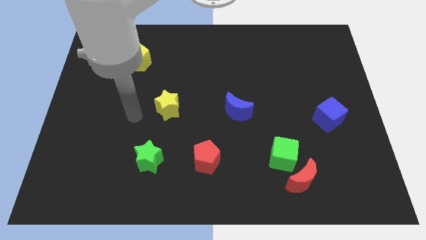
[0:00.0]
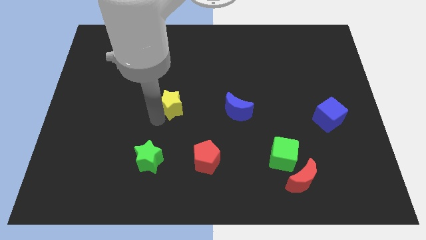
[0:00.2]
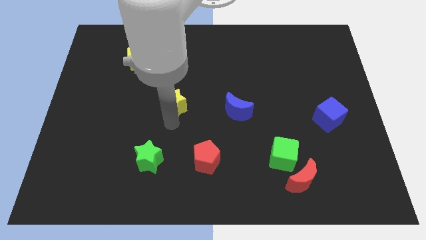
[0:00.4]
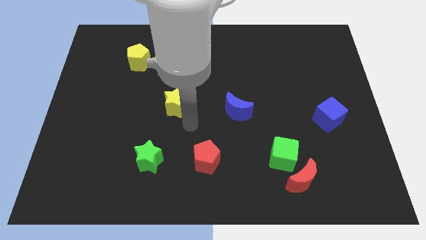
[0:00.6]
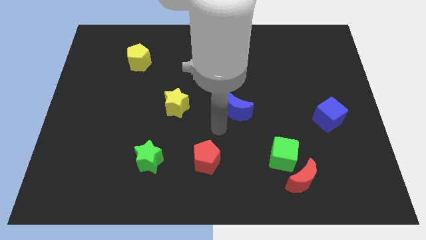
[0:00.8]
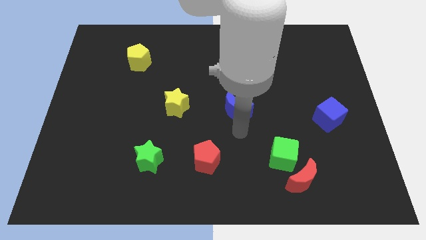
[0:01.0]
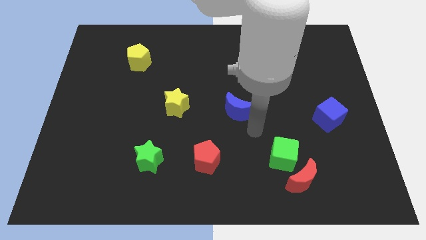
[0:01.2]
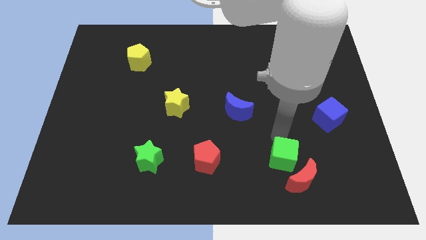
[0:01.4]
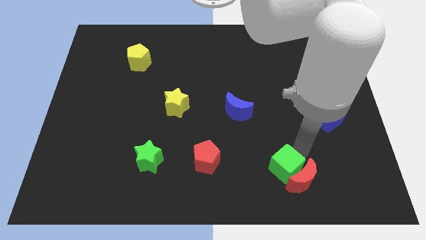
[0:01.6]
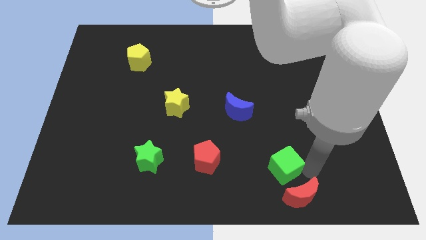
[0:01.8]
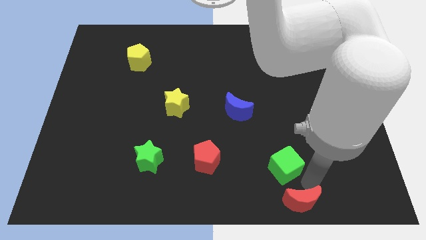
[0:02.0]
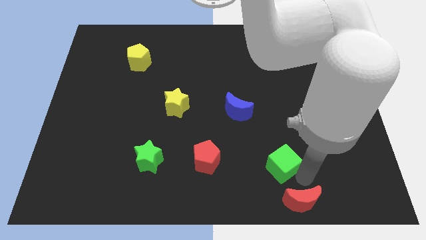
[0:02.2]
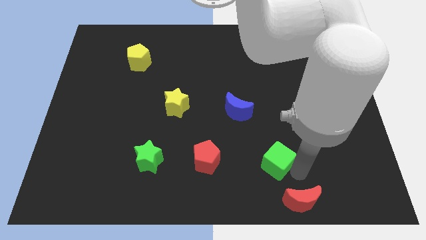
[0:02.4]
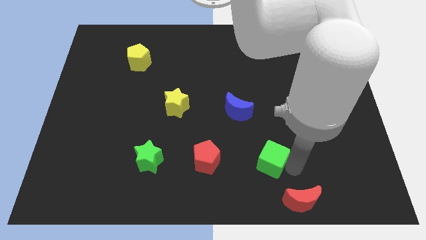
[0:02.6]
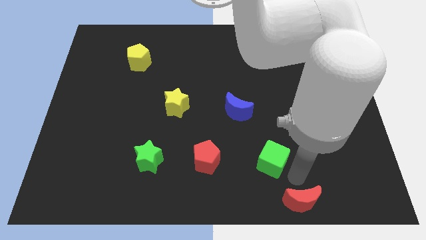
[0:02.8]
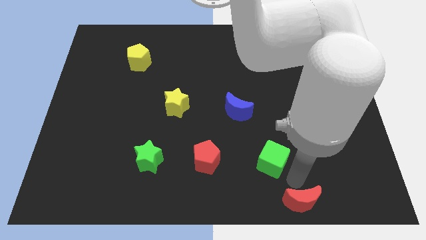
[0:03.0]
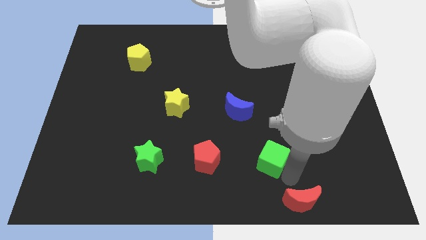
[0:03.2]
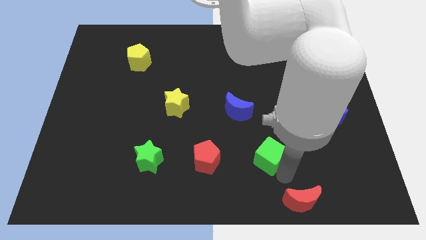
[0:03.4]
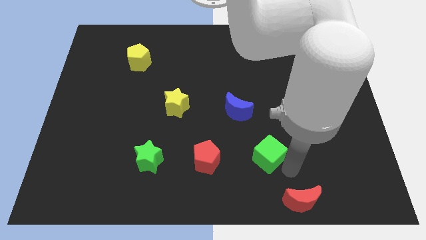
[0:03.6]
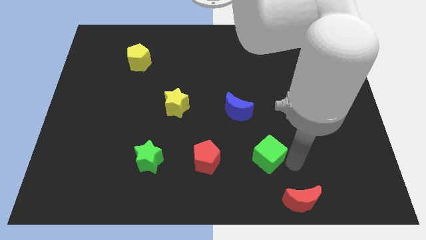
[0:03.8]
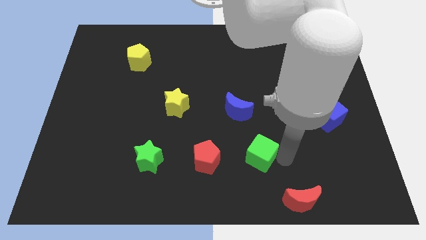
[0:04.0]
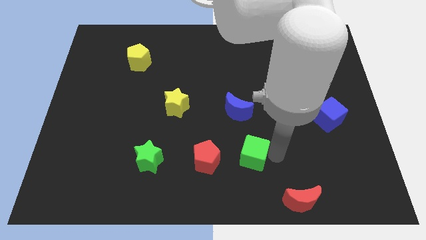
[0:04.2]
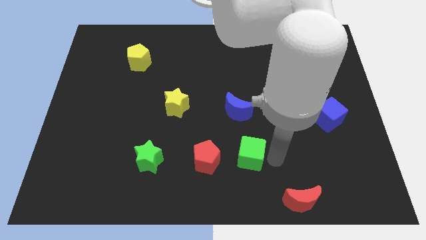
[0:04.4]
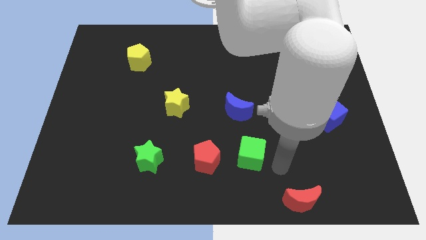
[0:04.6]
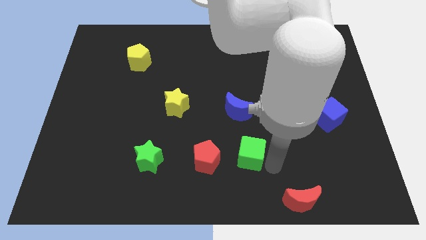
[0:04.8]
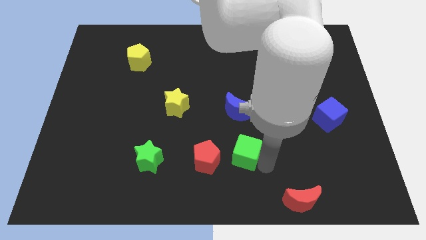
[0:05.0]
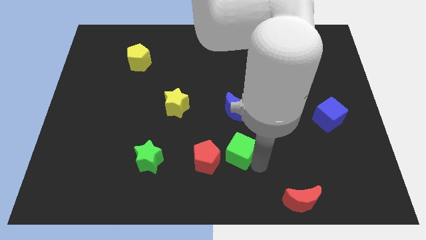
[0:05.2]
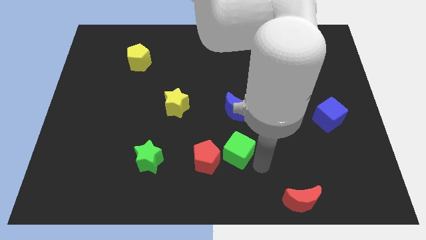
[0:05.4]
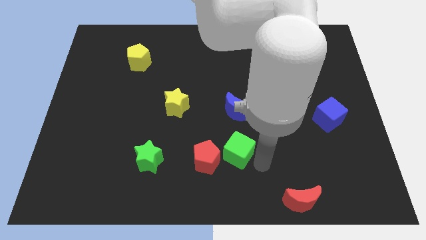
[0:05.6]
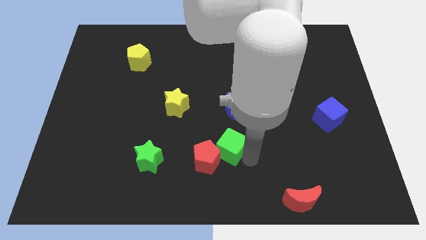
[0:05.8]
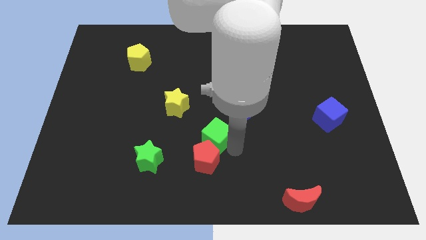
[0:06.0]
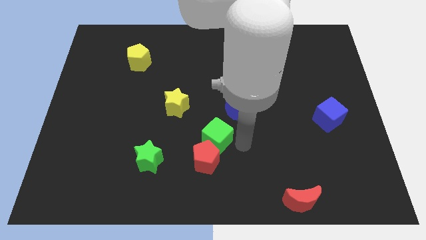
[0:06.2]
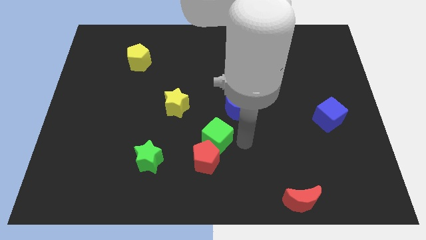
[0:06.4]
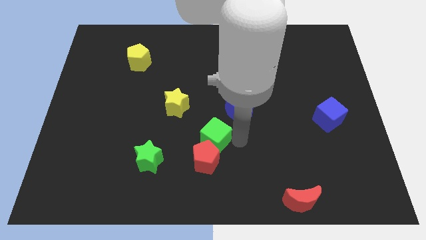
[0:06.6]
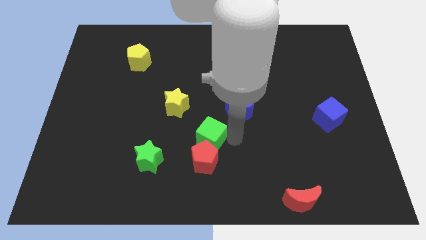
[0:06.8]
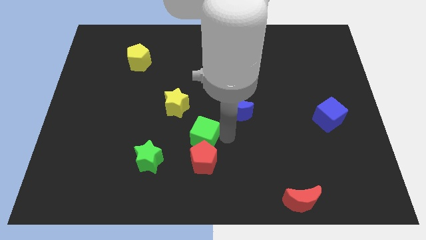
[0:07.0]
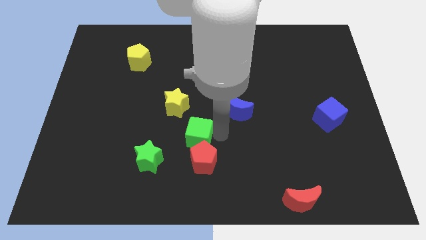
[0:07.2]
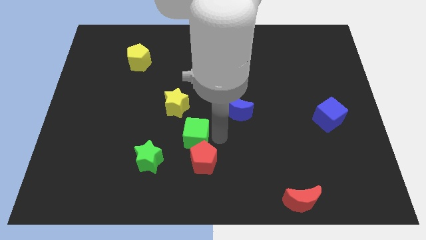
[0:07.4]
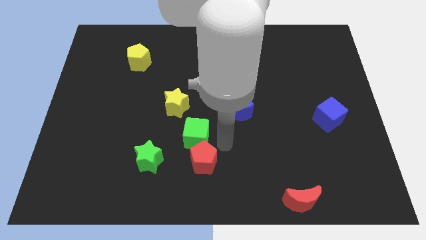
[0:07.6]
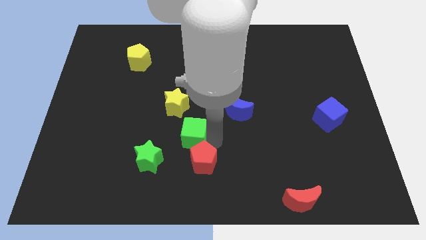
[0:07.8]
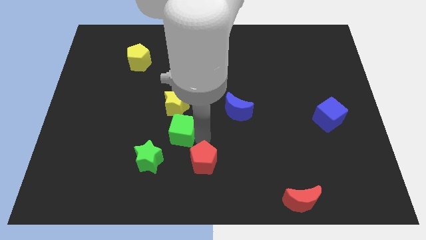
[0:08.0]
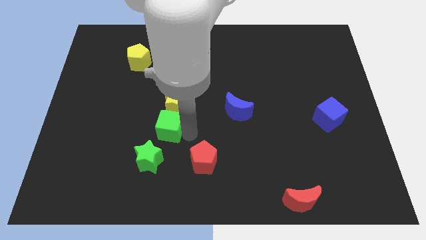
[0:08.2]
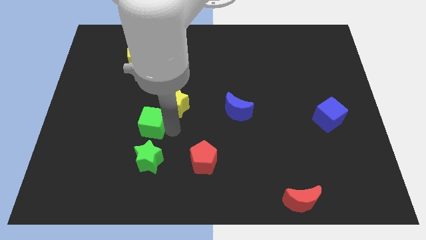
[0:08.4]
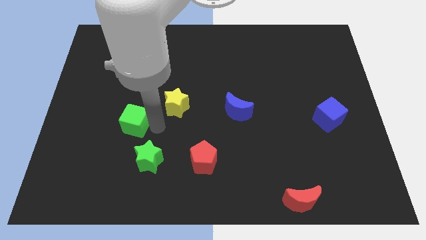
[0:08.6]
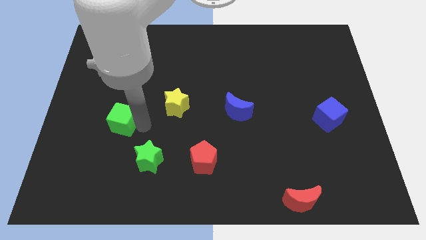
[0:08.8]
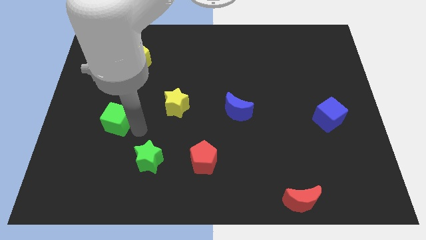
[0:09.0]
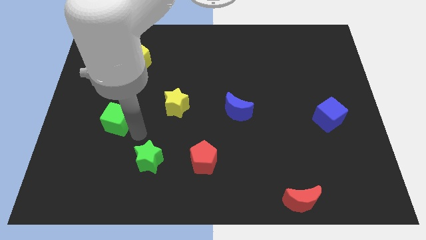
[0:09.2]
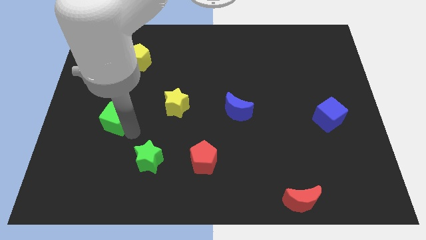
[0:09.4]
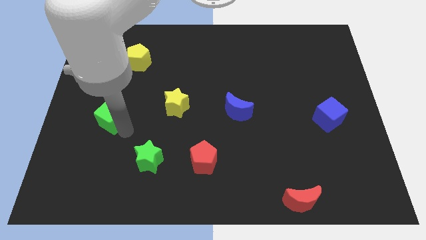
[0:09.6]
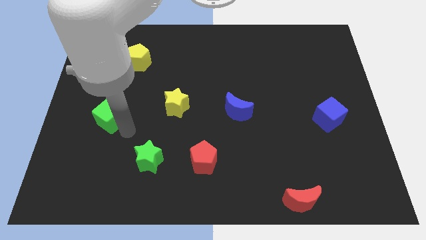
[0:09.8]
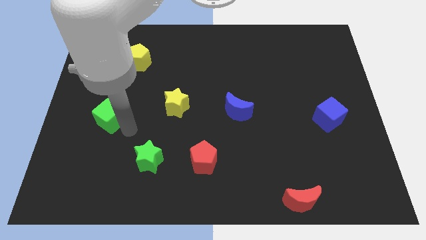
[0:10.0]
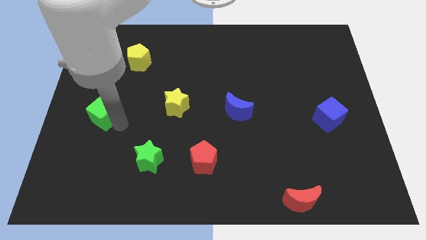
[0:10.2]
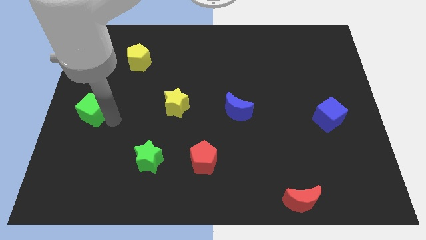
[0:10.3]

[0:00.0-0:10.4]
push the green cube to the left side of the board

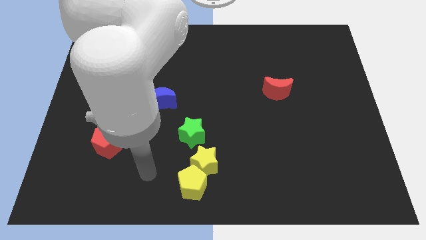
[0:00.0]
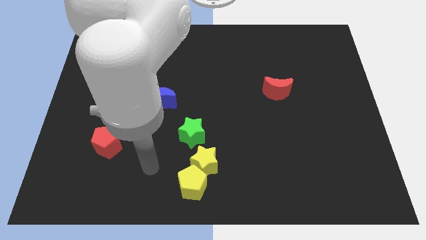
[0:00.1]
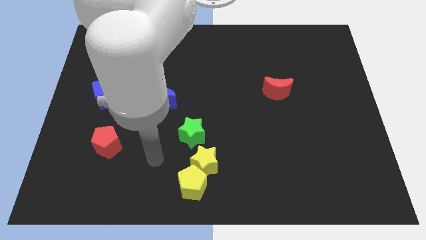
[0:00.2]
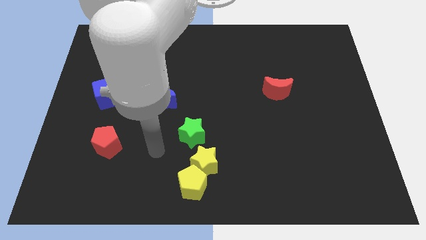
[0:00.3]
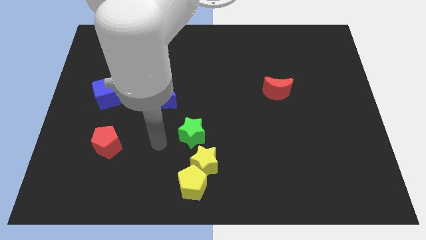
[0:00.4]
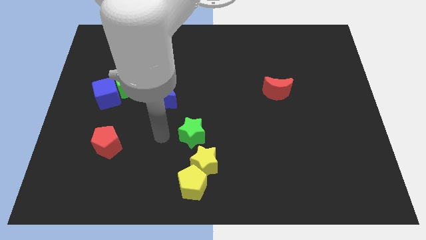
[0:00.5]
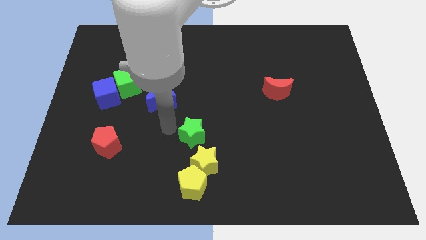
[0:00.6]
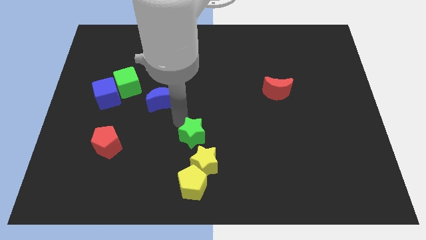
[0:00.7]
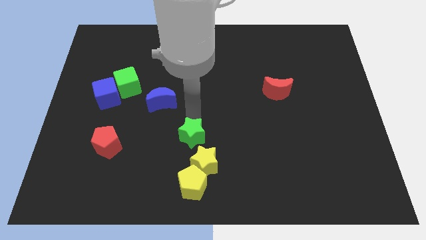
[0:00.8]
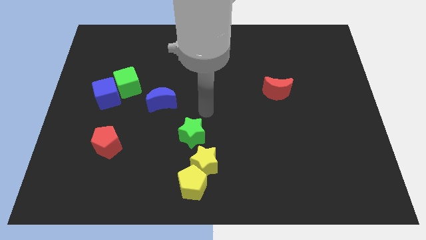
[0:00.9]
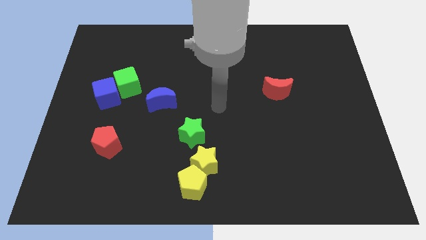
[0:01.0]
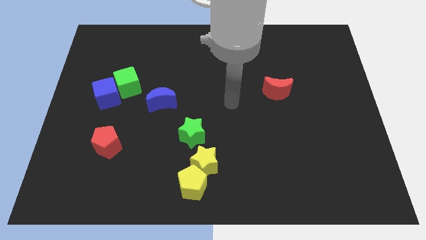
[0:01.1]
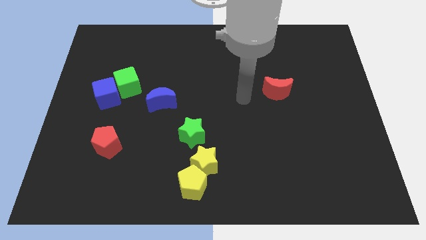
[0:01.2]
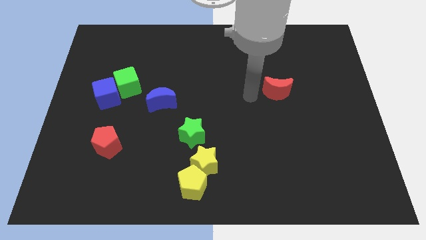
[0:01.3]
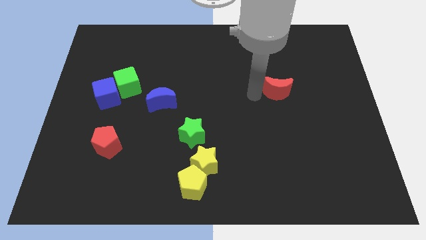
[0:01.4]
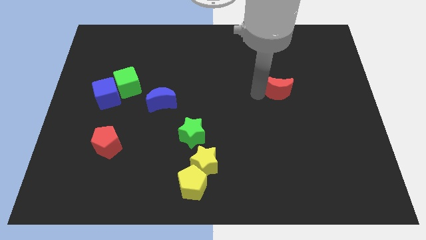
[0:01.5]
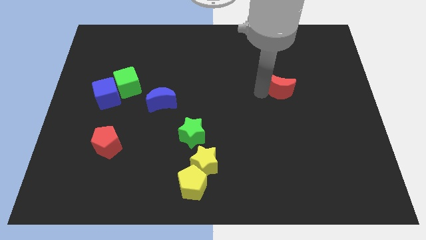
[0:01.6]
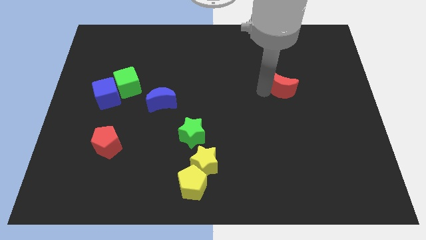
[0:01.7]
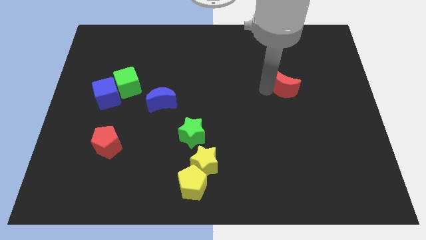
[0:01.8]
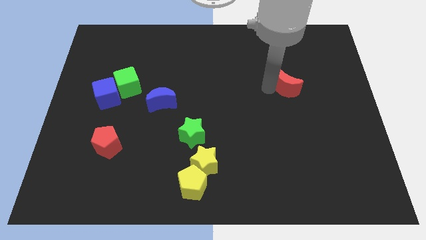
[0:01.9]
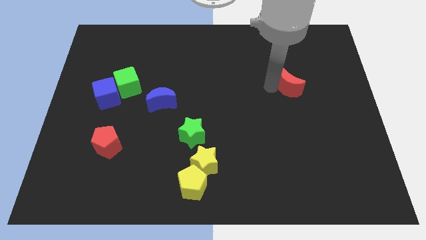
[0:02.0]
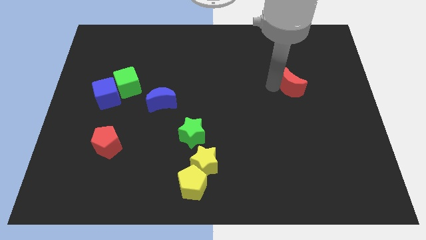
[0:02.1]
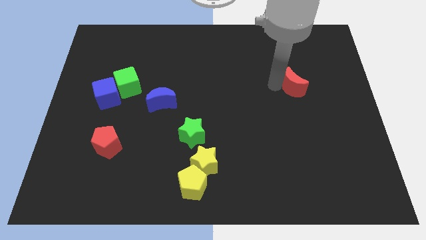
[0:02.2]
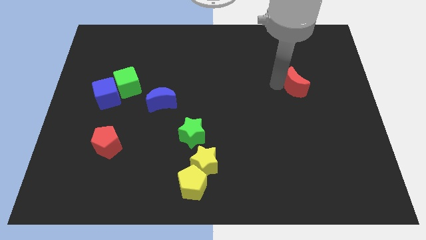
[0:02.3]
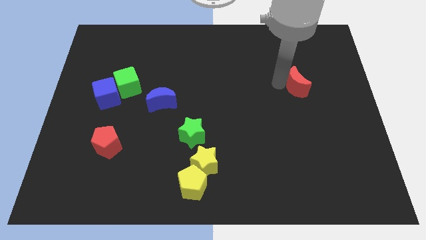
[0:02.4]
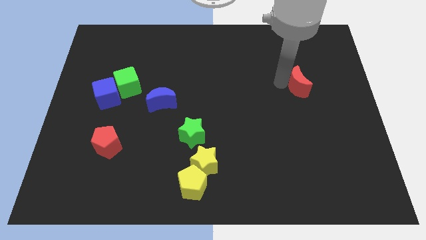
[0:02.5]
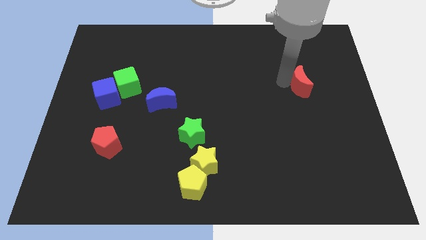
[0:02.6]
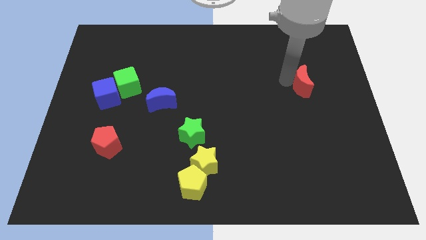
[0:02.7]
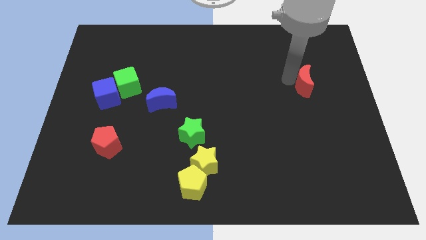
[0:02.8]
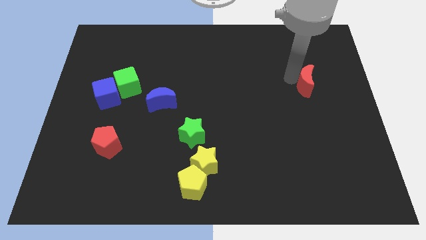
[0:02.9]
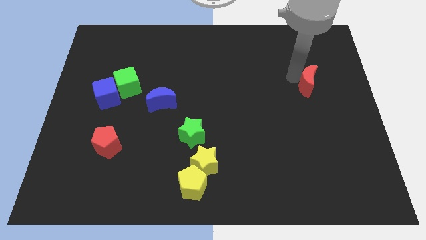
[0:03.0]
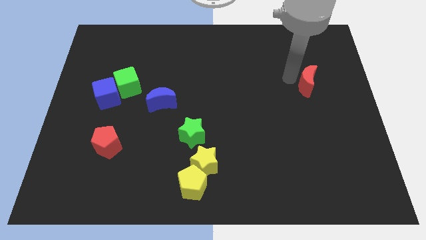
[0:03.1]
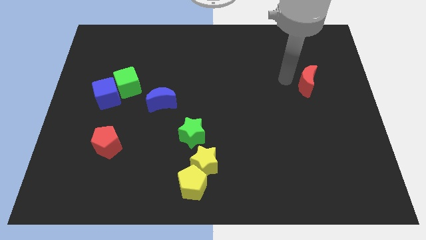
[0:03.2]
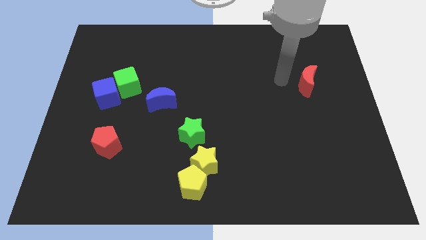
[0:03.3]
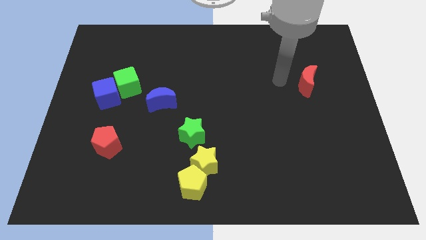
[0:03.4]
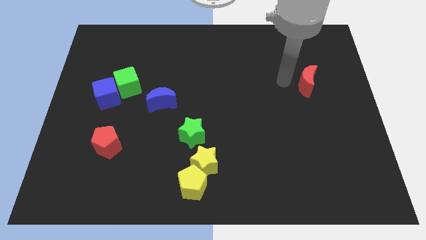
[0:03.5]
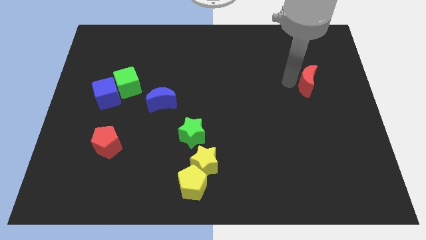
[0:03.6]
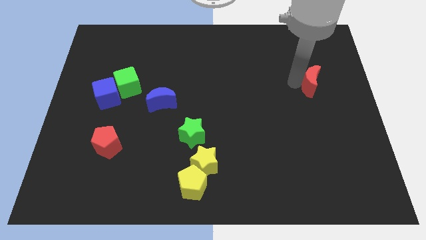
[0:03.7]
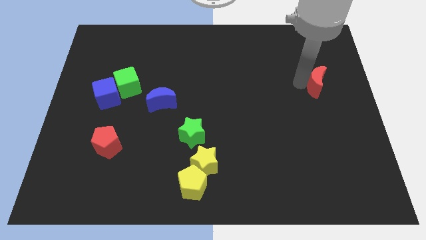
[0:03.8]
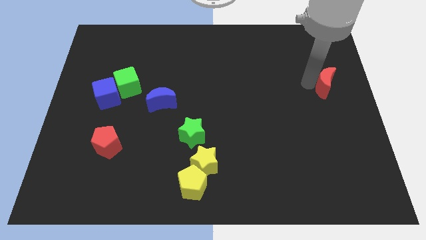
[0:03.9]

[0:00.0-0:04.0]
push the red moon to the right side of the board
